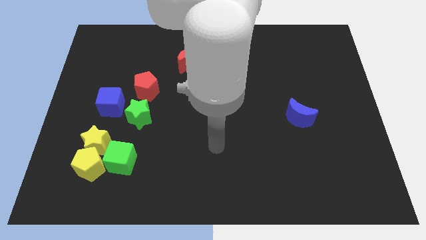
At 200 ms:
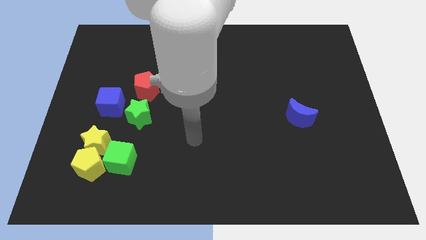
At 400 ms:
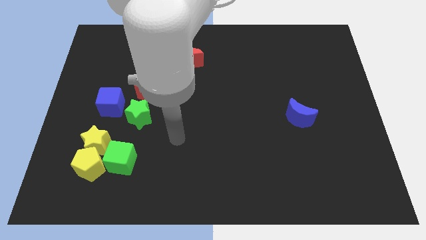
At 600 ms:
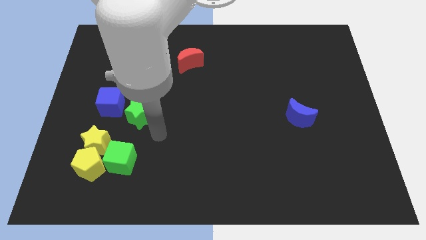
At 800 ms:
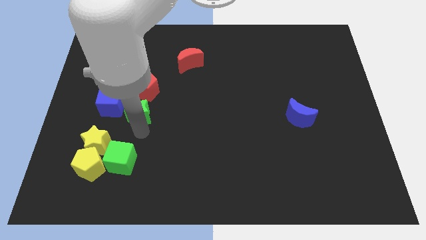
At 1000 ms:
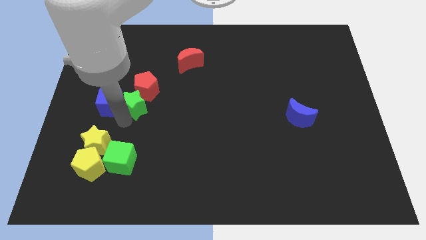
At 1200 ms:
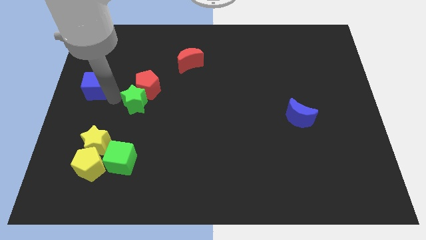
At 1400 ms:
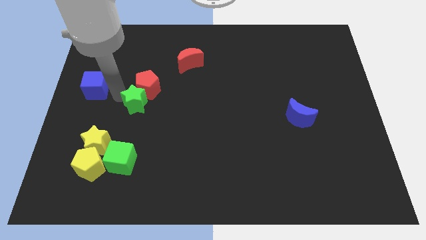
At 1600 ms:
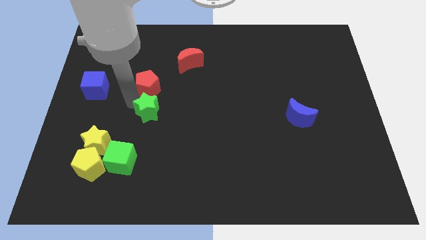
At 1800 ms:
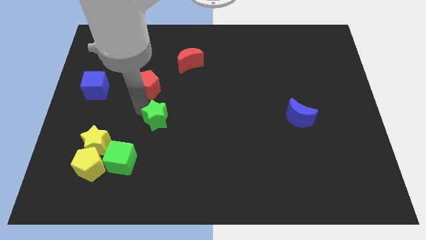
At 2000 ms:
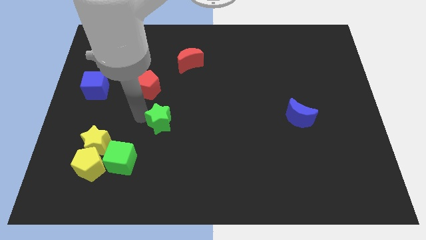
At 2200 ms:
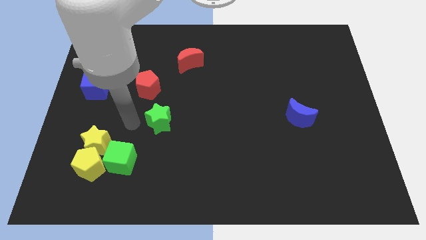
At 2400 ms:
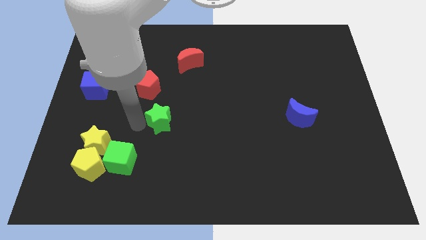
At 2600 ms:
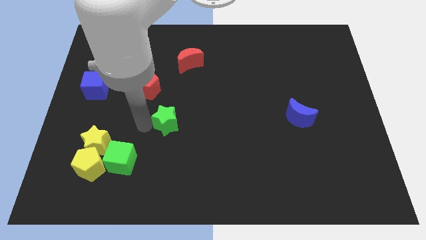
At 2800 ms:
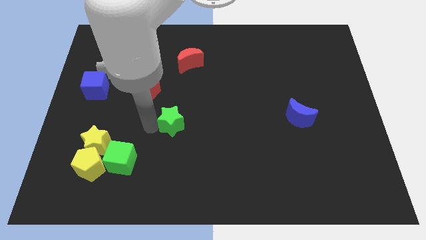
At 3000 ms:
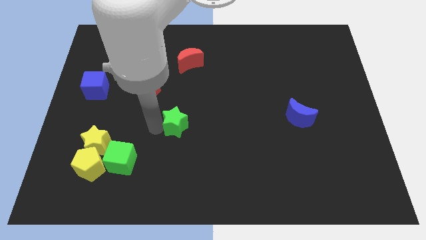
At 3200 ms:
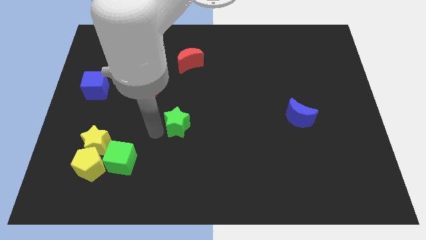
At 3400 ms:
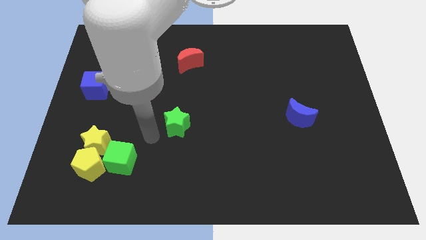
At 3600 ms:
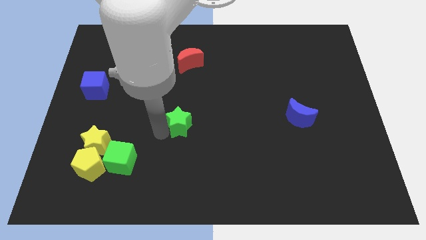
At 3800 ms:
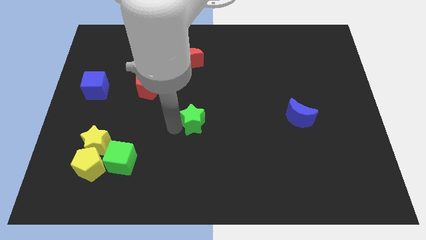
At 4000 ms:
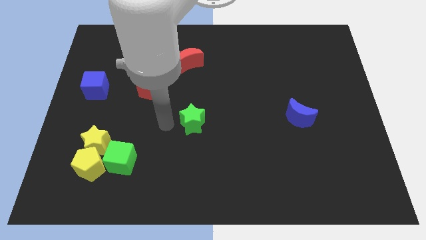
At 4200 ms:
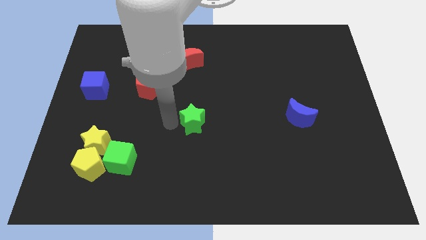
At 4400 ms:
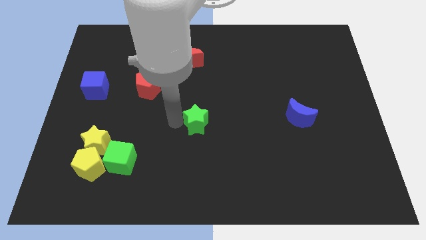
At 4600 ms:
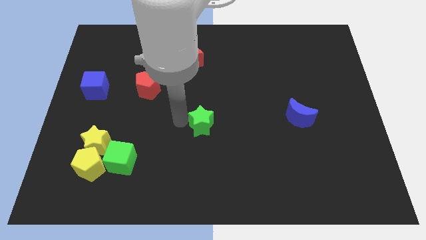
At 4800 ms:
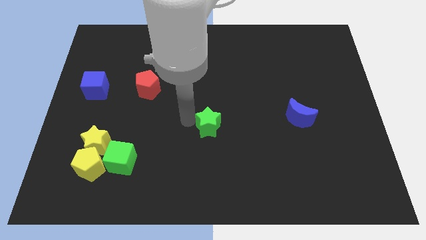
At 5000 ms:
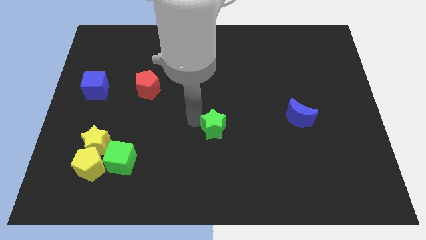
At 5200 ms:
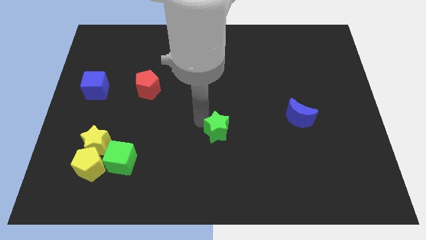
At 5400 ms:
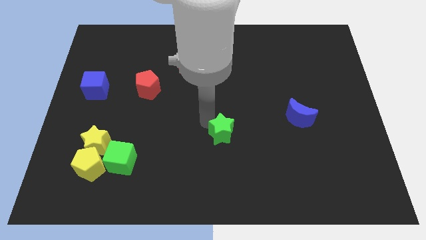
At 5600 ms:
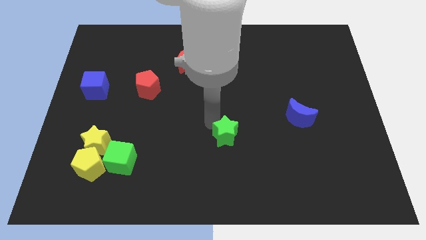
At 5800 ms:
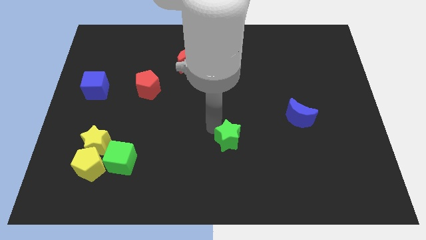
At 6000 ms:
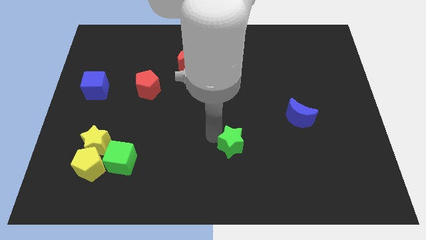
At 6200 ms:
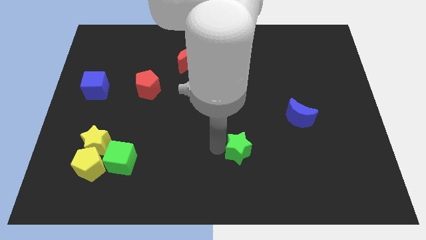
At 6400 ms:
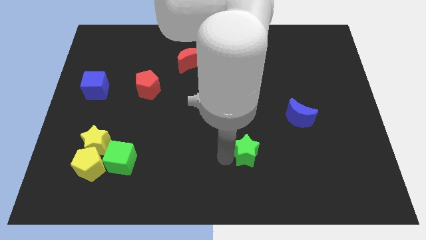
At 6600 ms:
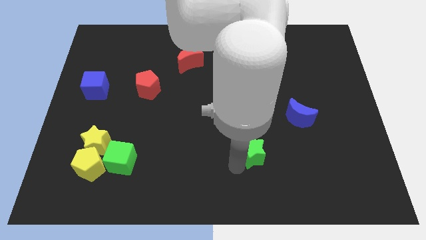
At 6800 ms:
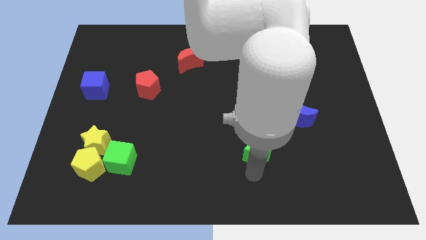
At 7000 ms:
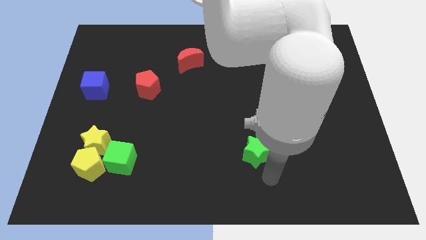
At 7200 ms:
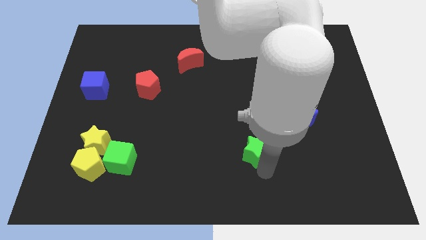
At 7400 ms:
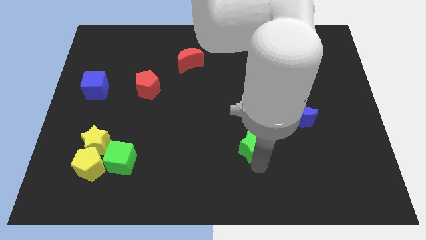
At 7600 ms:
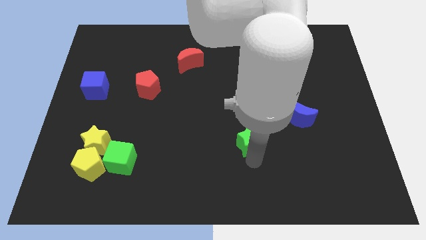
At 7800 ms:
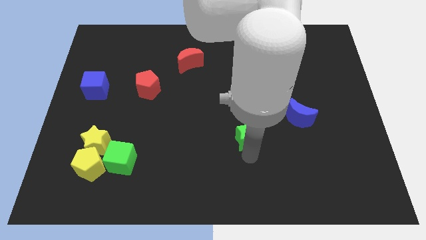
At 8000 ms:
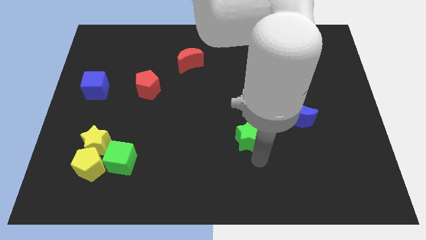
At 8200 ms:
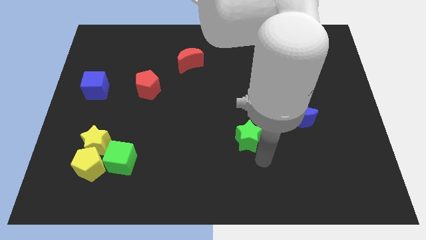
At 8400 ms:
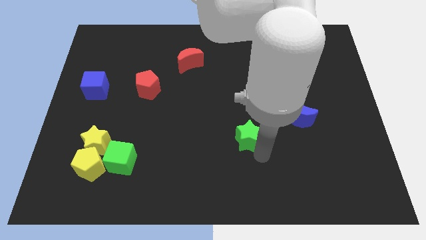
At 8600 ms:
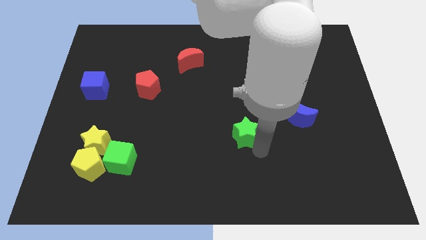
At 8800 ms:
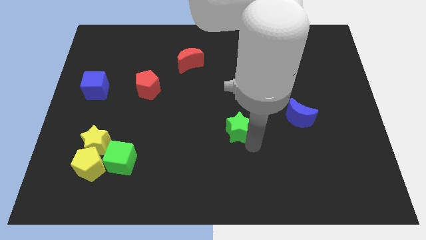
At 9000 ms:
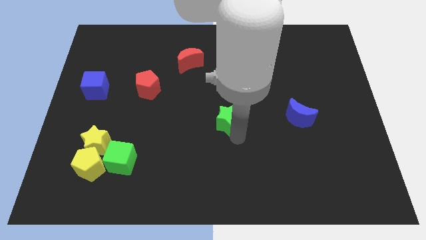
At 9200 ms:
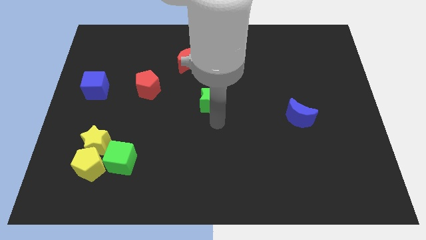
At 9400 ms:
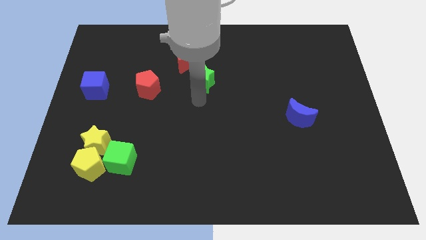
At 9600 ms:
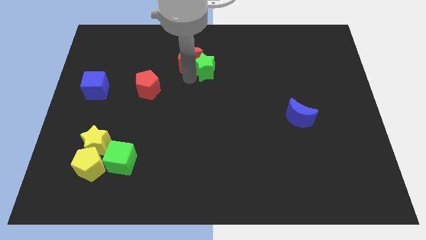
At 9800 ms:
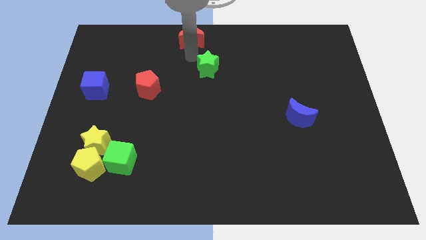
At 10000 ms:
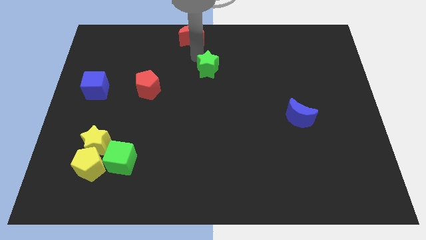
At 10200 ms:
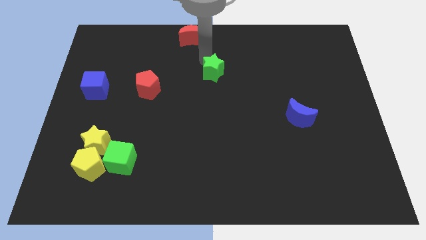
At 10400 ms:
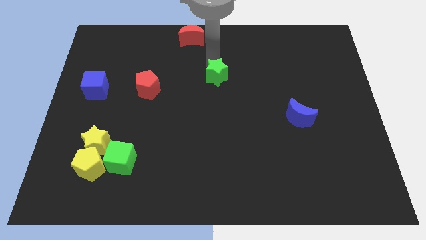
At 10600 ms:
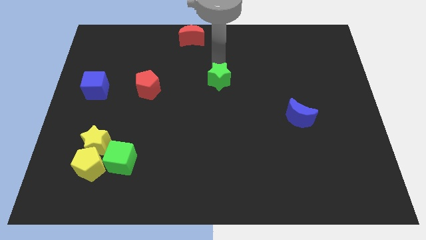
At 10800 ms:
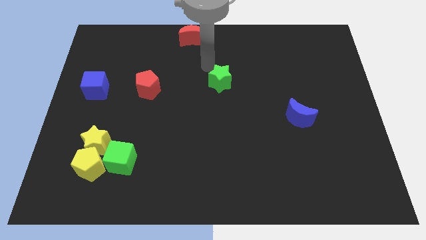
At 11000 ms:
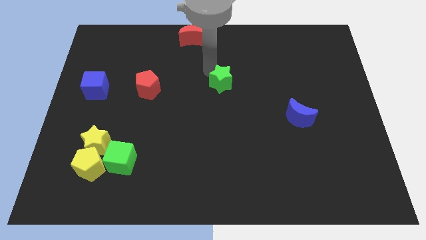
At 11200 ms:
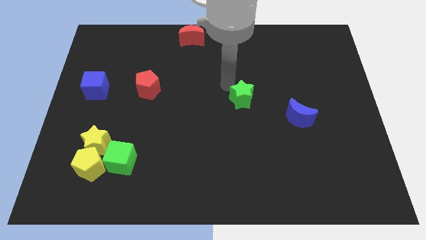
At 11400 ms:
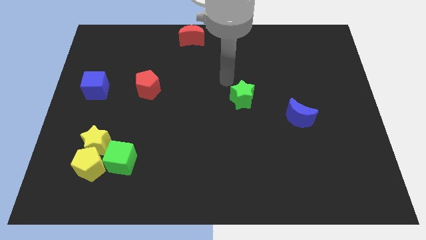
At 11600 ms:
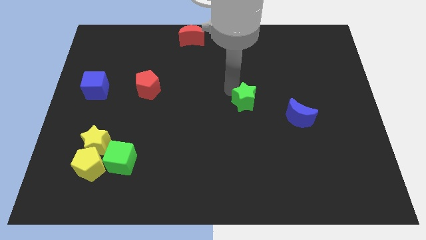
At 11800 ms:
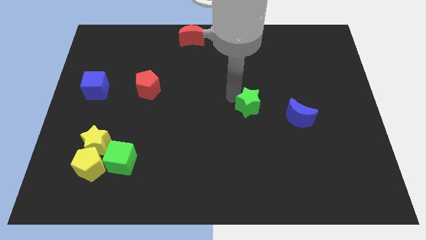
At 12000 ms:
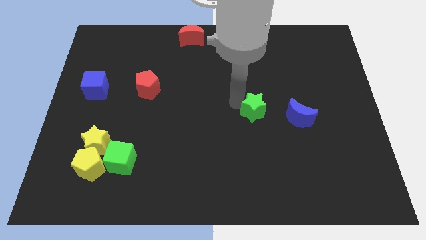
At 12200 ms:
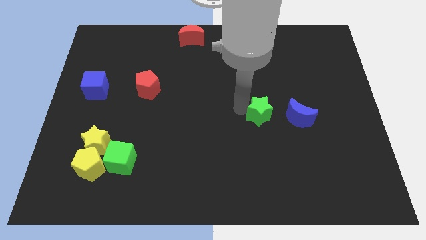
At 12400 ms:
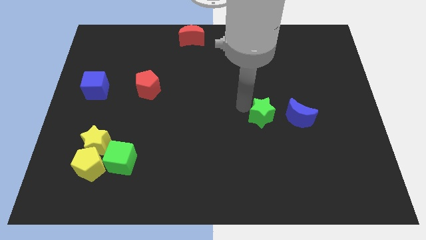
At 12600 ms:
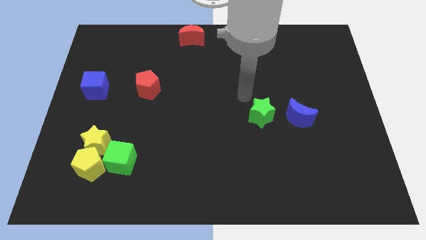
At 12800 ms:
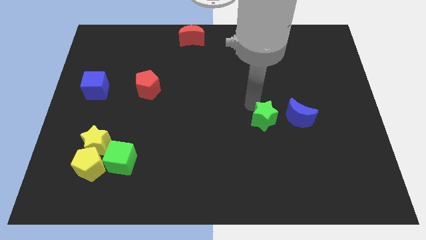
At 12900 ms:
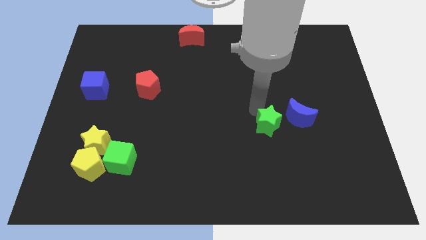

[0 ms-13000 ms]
move the green star diagonally down and to the left of the blue moon

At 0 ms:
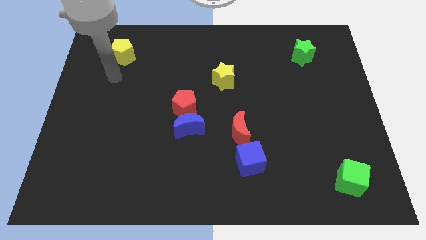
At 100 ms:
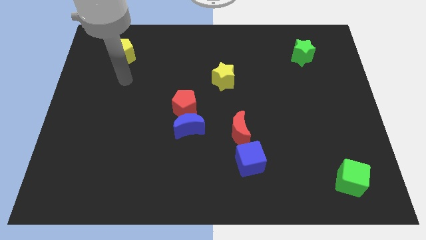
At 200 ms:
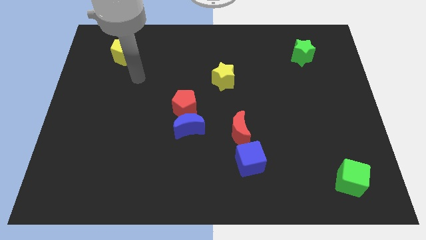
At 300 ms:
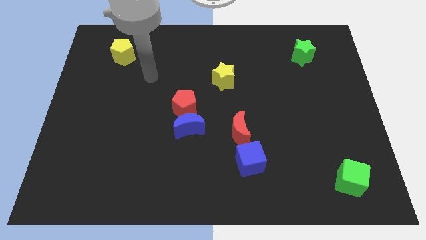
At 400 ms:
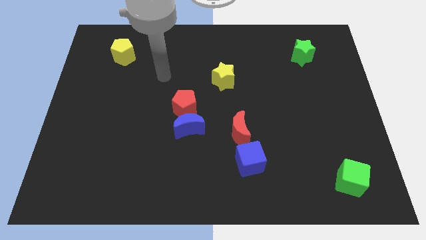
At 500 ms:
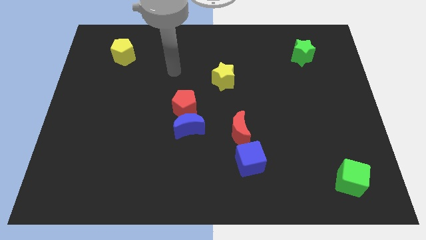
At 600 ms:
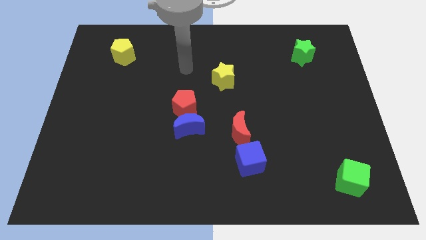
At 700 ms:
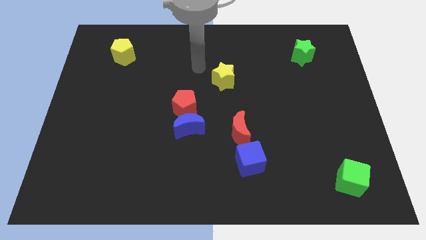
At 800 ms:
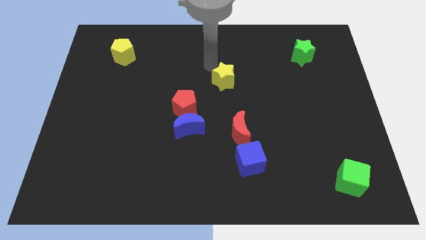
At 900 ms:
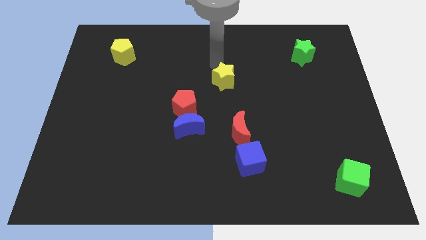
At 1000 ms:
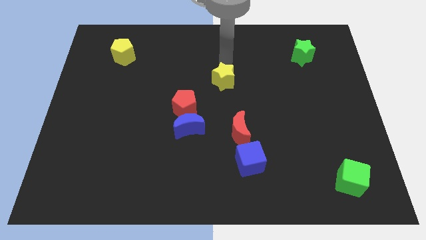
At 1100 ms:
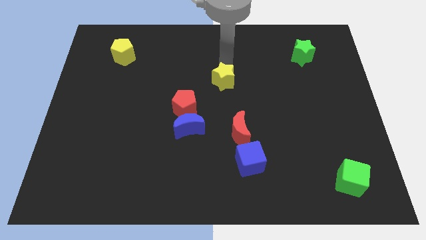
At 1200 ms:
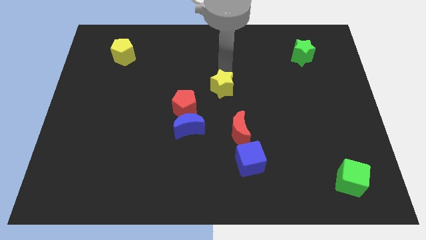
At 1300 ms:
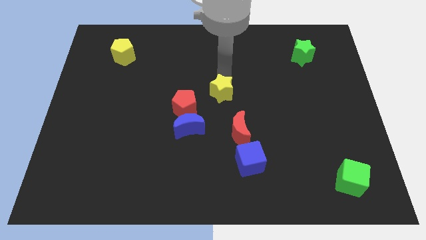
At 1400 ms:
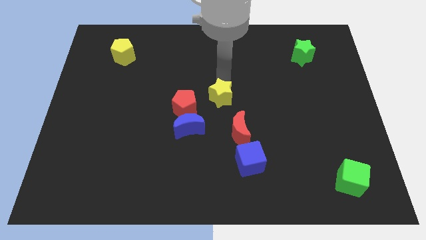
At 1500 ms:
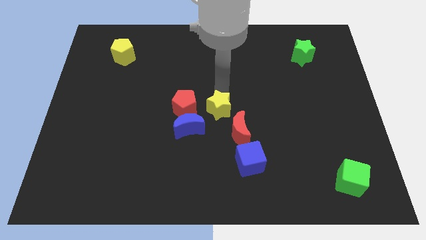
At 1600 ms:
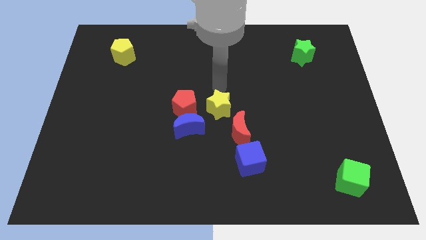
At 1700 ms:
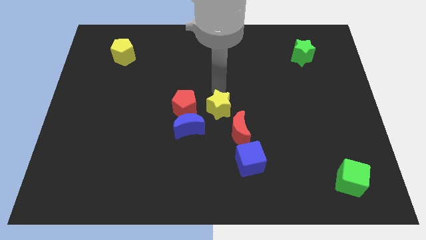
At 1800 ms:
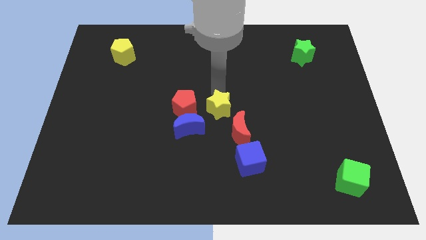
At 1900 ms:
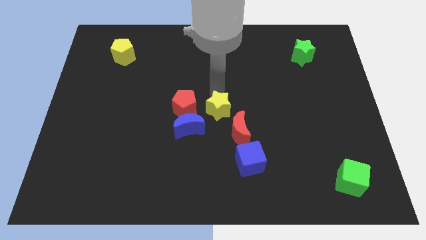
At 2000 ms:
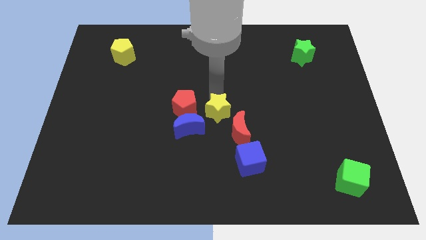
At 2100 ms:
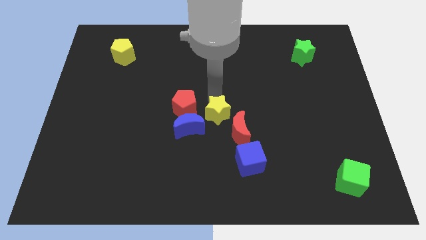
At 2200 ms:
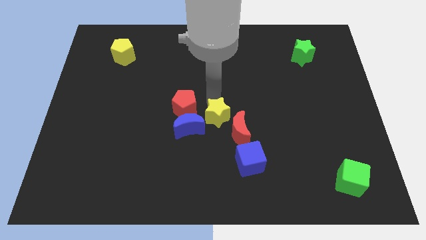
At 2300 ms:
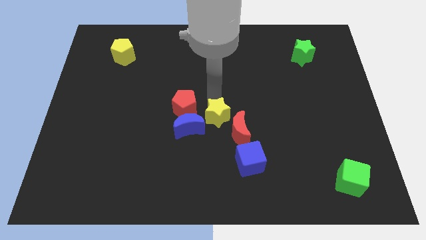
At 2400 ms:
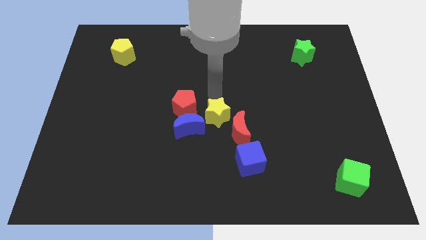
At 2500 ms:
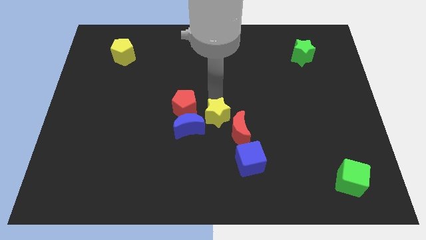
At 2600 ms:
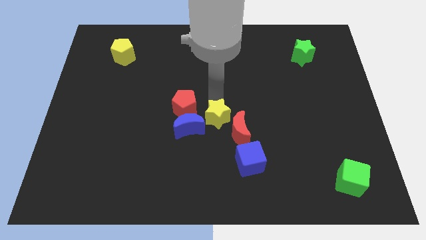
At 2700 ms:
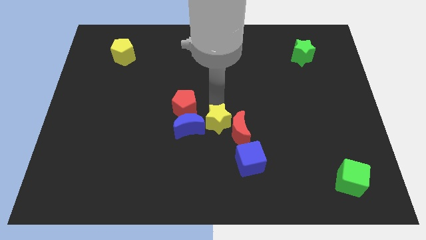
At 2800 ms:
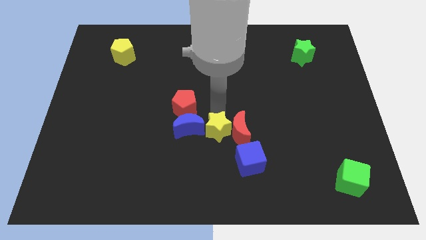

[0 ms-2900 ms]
put the yellow star to the bottom left of the red moon
